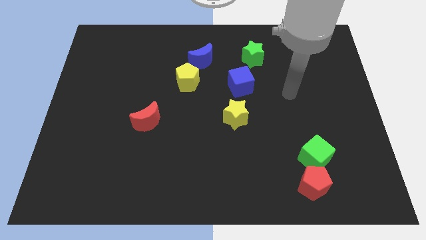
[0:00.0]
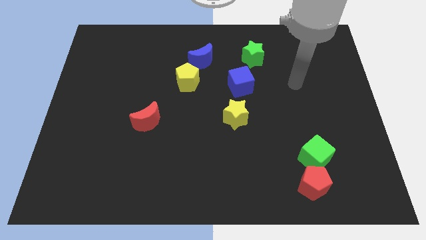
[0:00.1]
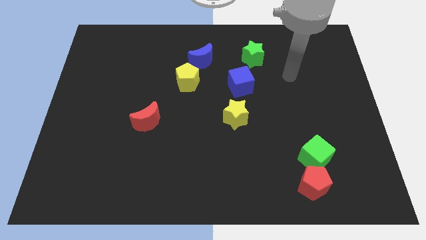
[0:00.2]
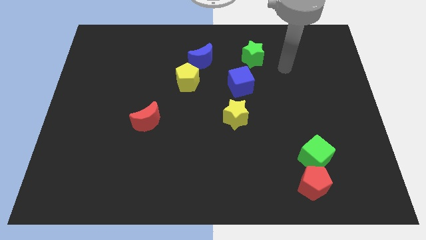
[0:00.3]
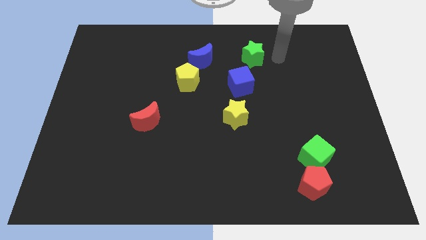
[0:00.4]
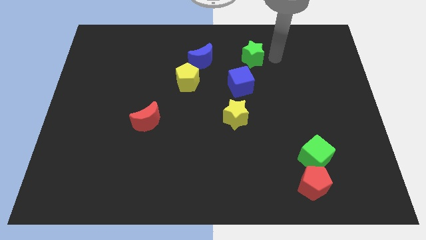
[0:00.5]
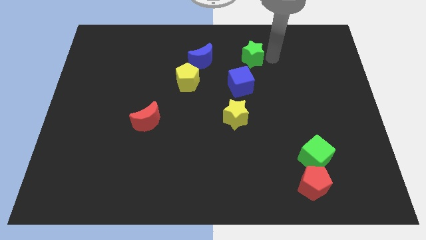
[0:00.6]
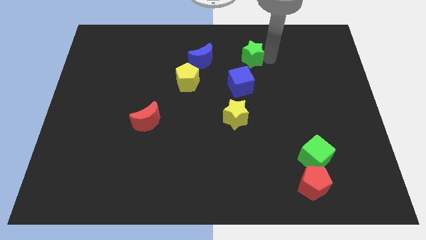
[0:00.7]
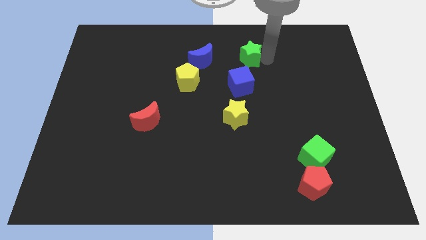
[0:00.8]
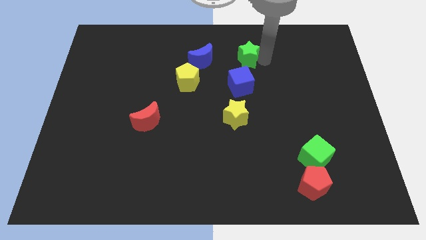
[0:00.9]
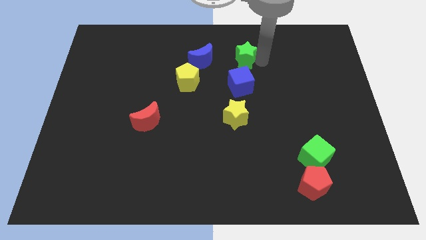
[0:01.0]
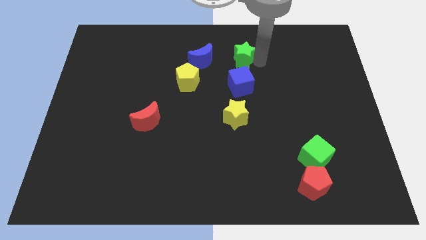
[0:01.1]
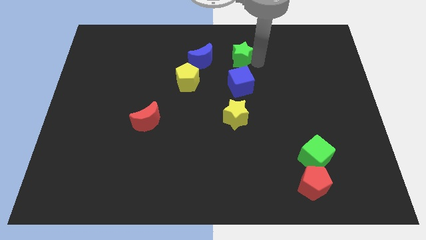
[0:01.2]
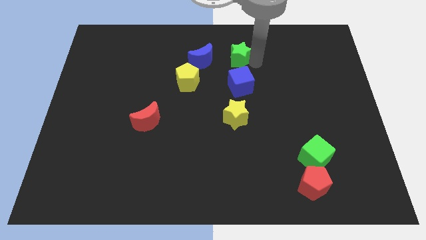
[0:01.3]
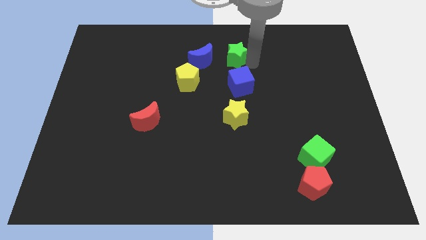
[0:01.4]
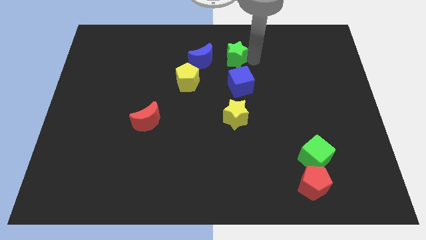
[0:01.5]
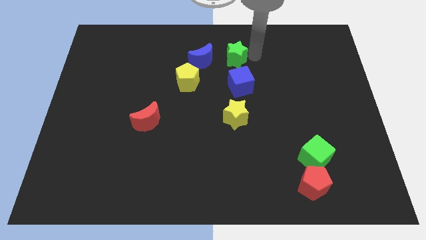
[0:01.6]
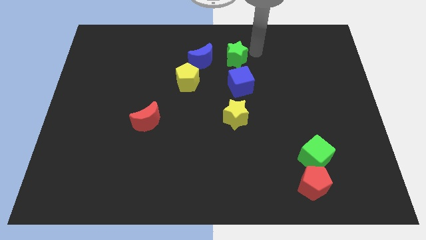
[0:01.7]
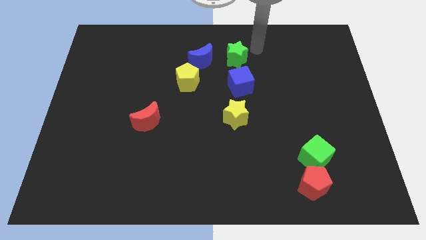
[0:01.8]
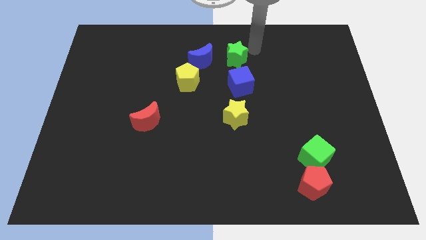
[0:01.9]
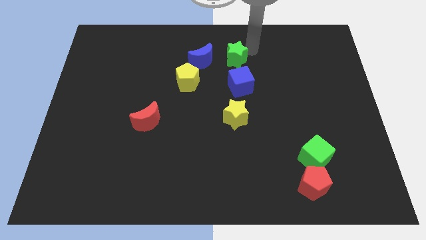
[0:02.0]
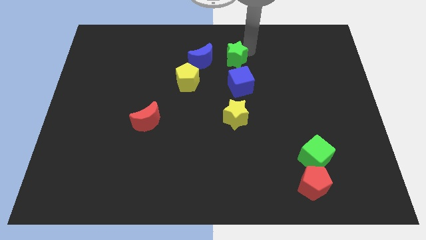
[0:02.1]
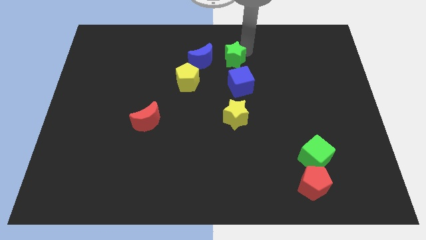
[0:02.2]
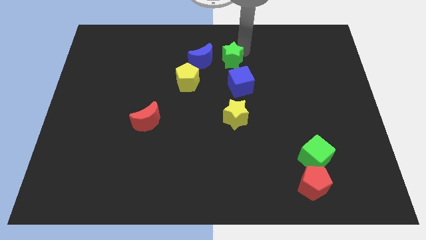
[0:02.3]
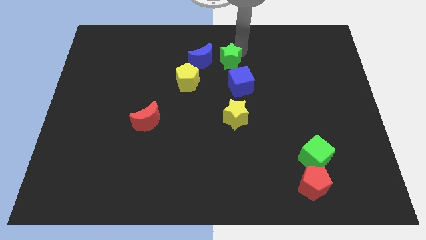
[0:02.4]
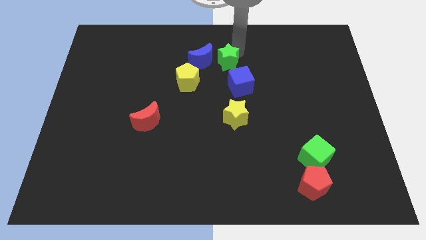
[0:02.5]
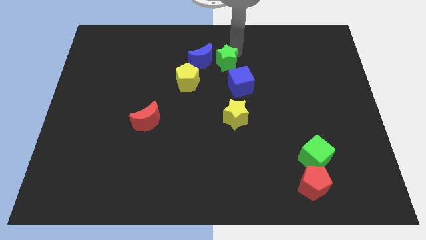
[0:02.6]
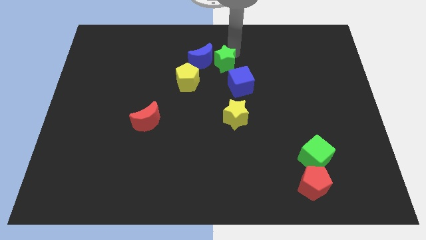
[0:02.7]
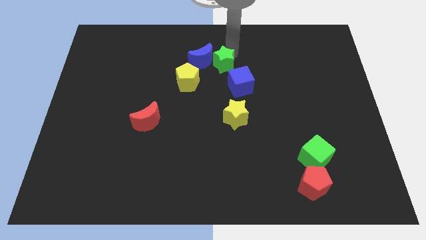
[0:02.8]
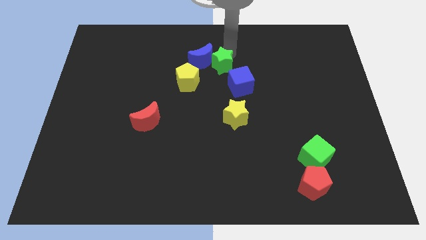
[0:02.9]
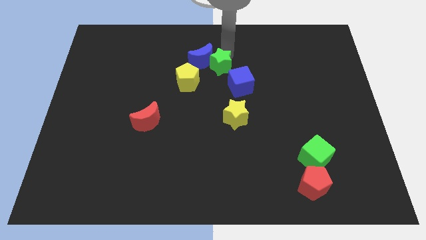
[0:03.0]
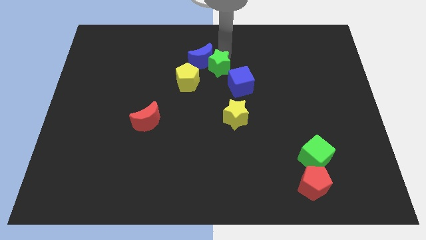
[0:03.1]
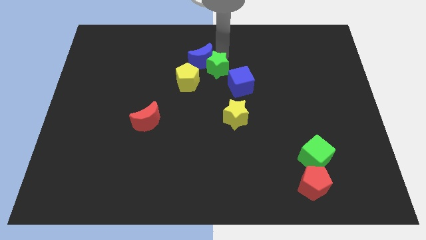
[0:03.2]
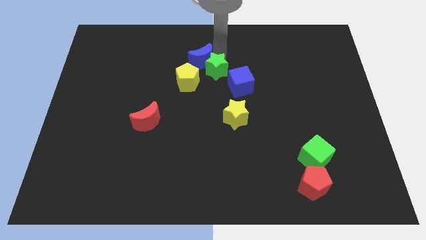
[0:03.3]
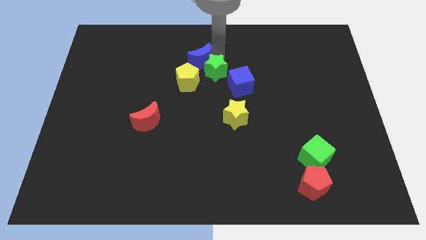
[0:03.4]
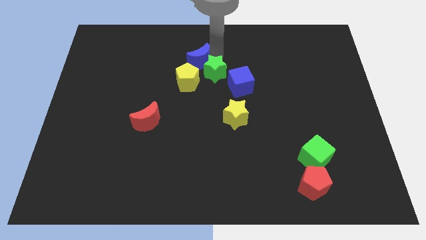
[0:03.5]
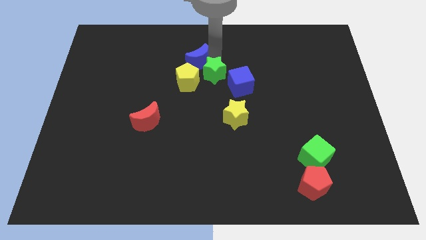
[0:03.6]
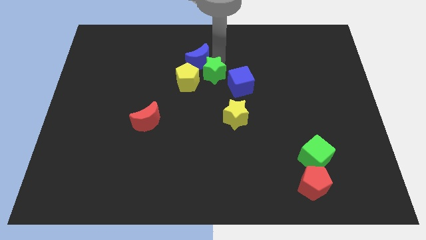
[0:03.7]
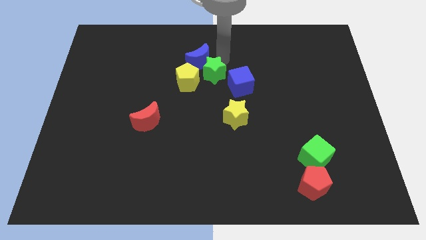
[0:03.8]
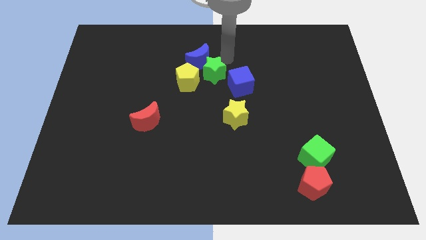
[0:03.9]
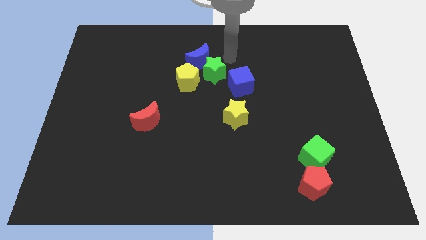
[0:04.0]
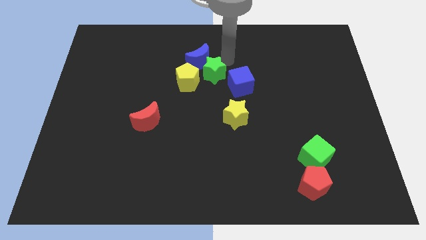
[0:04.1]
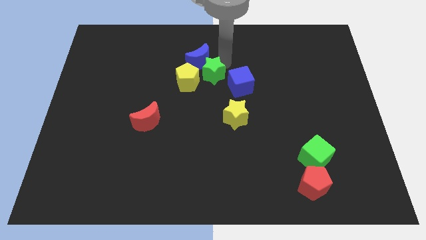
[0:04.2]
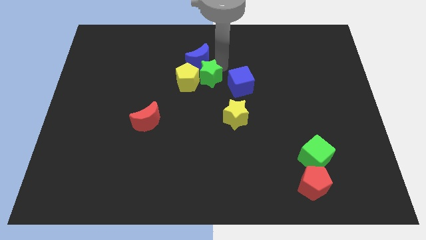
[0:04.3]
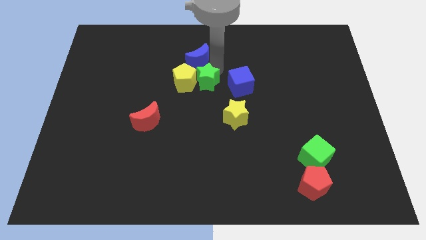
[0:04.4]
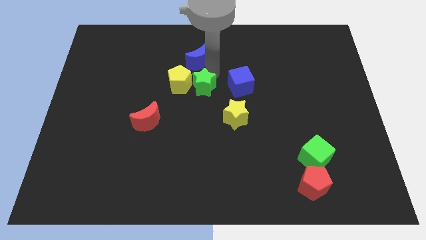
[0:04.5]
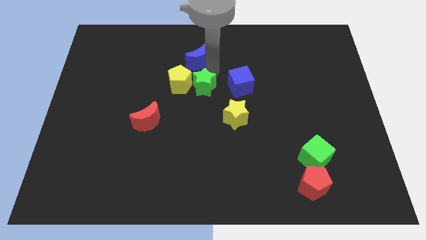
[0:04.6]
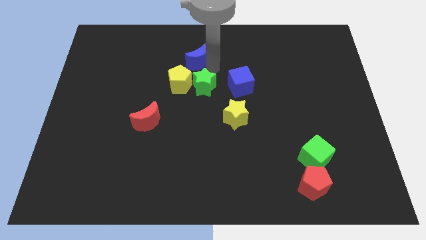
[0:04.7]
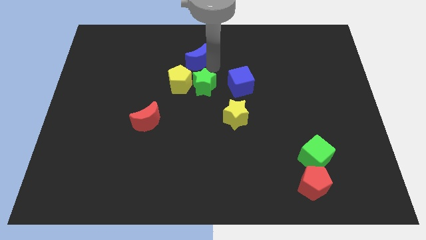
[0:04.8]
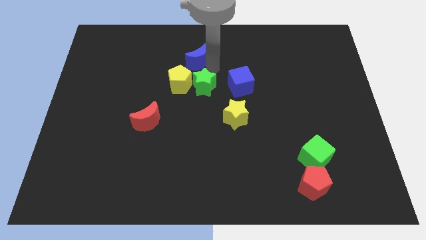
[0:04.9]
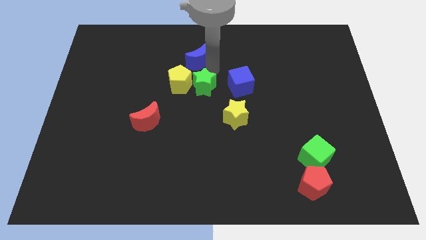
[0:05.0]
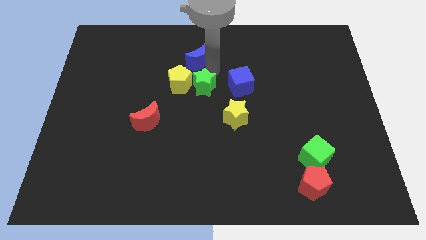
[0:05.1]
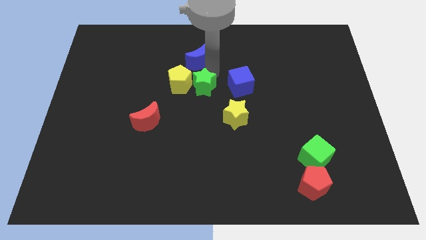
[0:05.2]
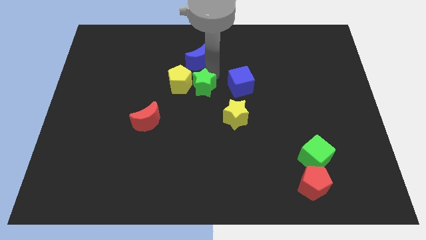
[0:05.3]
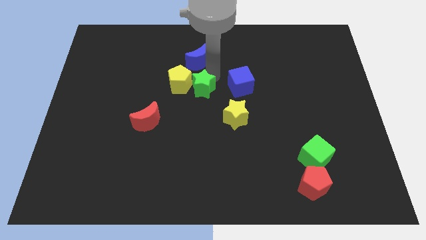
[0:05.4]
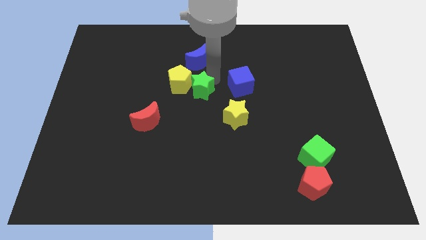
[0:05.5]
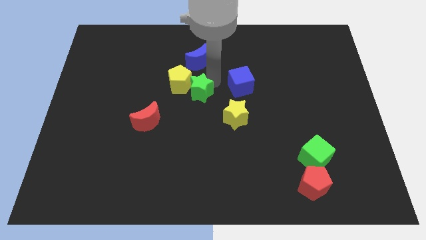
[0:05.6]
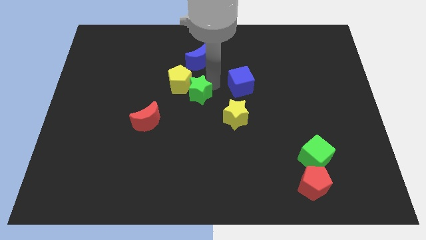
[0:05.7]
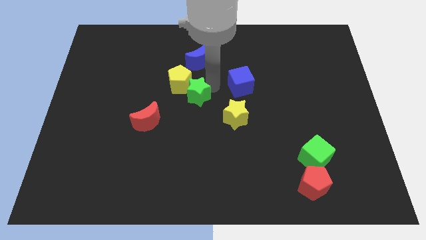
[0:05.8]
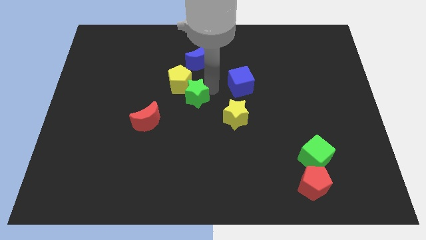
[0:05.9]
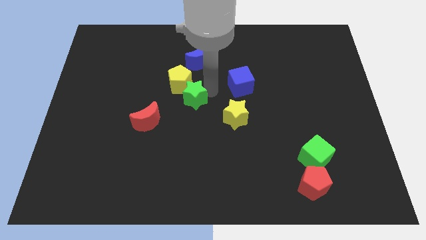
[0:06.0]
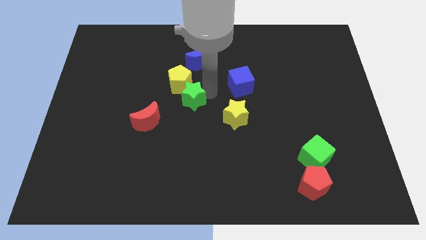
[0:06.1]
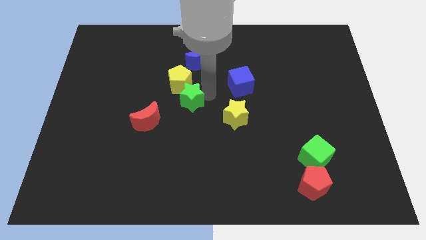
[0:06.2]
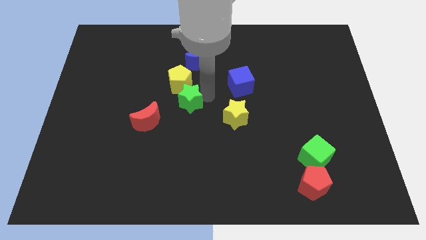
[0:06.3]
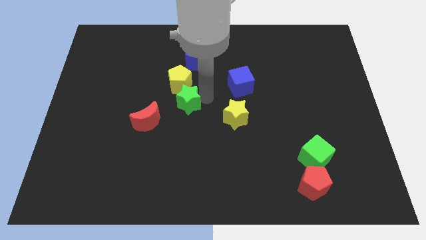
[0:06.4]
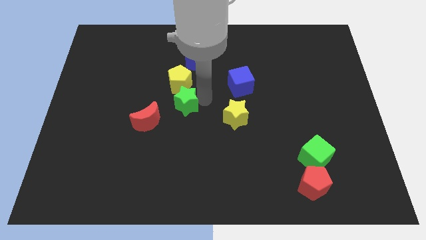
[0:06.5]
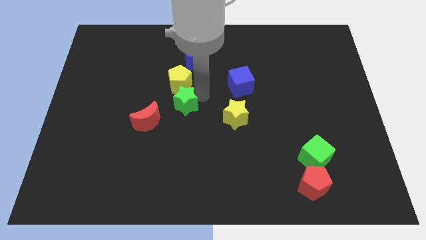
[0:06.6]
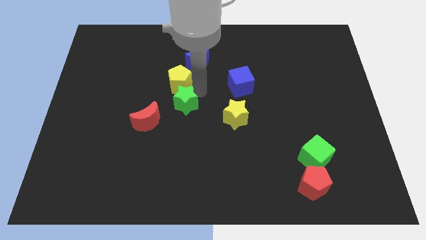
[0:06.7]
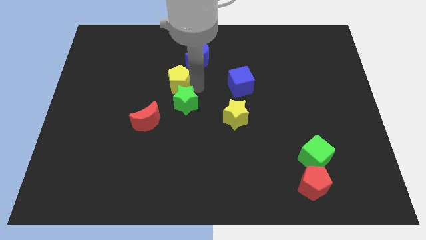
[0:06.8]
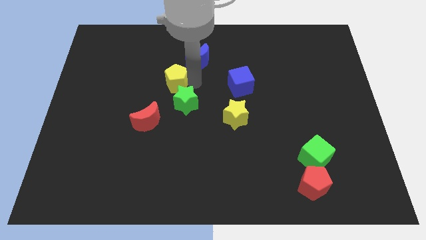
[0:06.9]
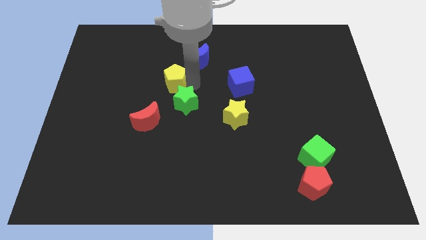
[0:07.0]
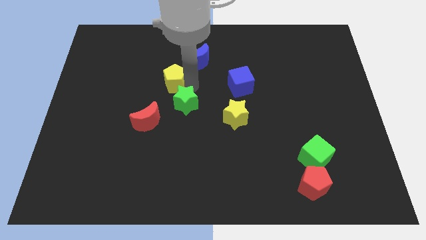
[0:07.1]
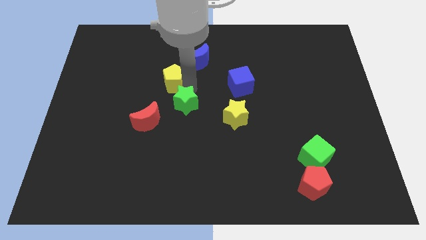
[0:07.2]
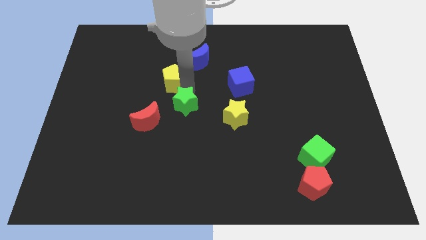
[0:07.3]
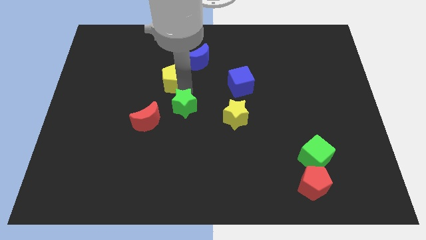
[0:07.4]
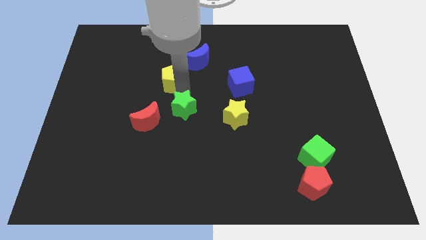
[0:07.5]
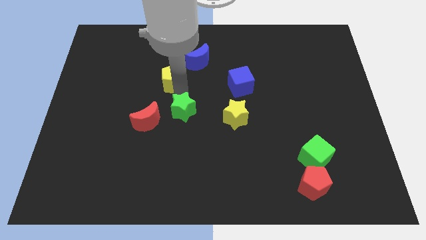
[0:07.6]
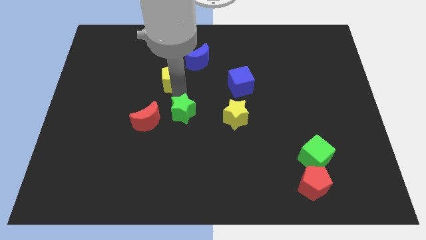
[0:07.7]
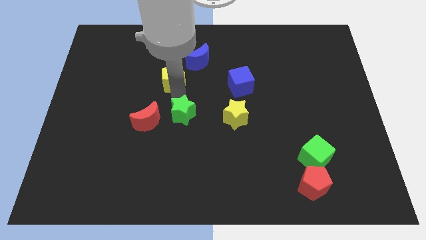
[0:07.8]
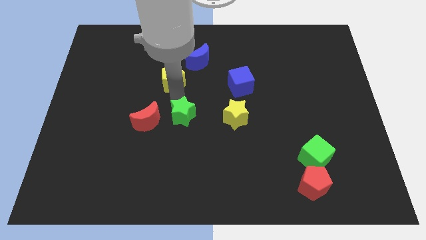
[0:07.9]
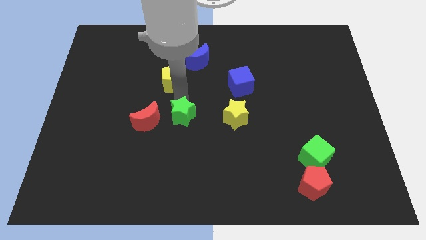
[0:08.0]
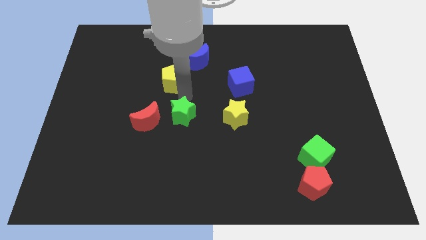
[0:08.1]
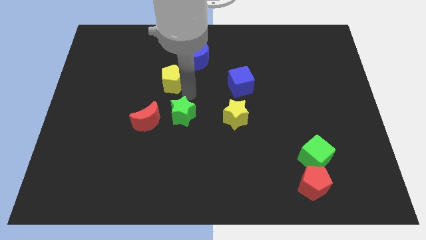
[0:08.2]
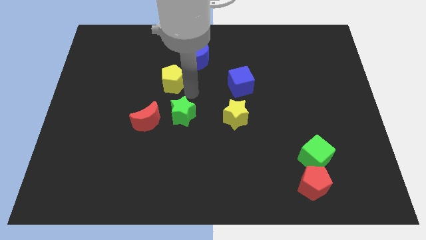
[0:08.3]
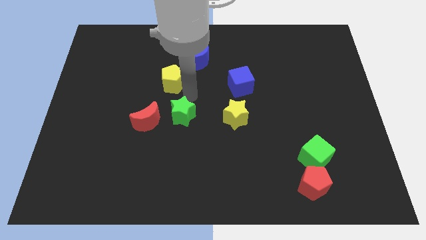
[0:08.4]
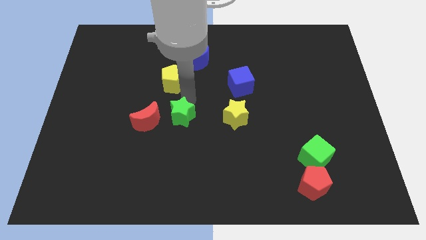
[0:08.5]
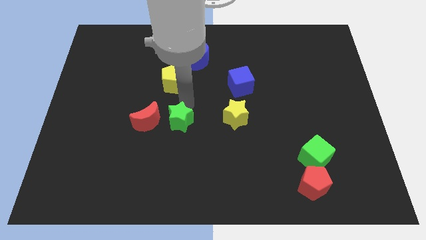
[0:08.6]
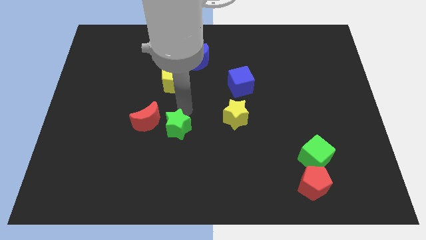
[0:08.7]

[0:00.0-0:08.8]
push the green star to the bottom right of the red moon
